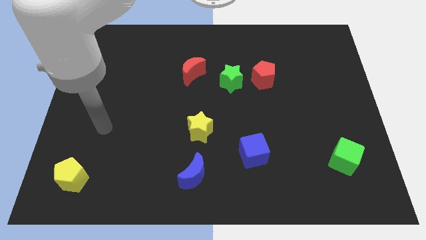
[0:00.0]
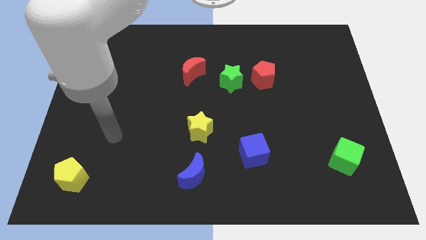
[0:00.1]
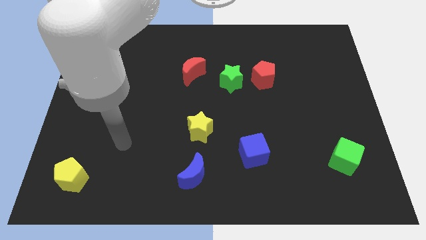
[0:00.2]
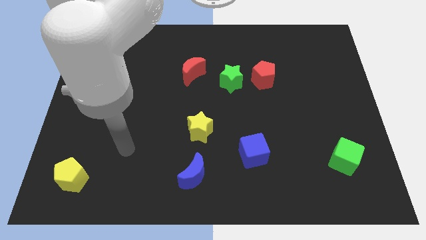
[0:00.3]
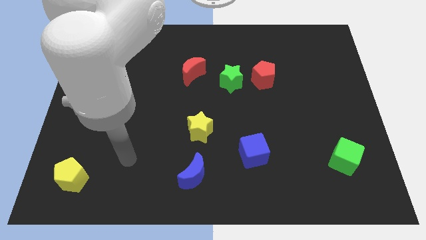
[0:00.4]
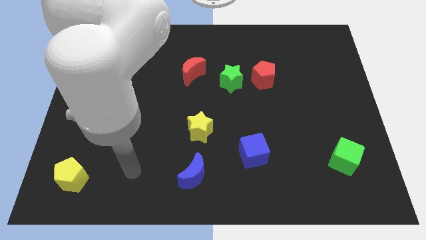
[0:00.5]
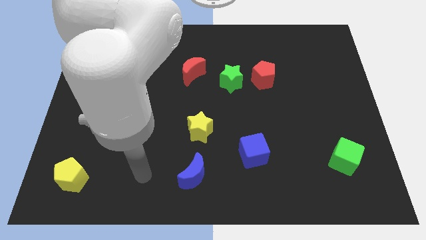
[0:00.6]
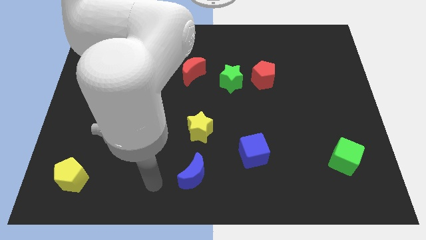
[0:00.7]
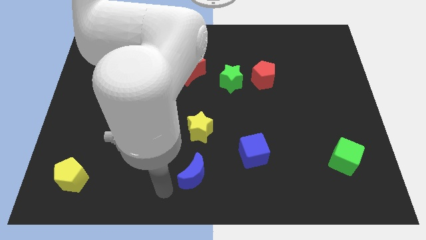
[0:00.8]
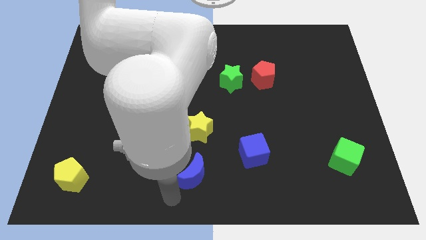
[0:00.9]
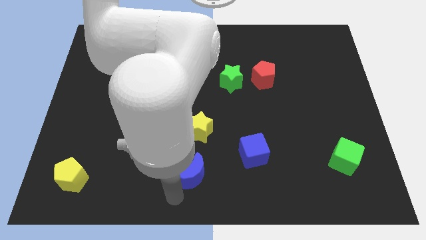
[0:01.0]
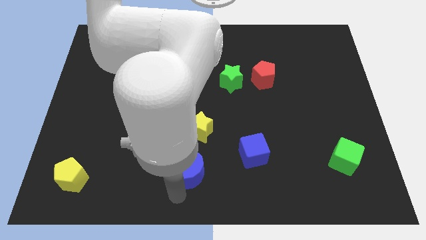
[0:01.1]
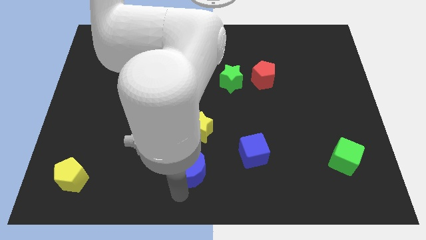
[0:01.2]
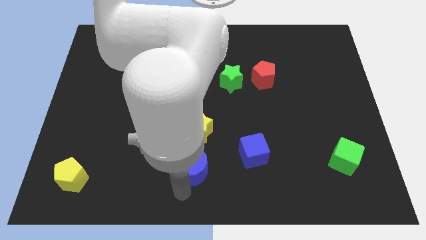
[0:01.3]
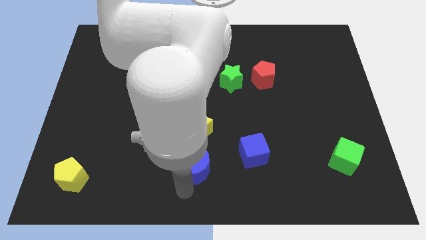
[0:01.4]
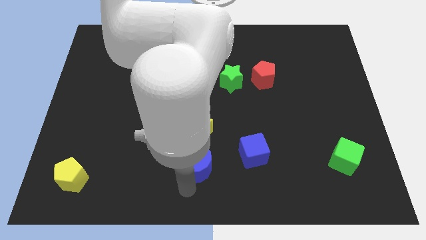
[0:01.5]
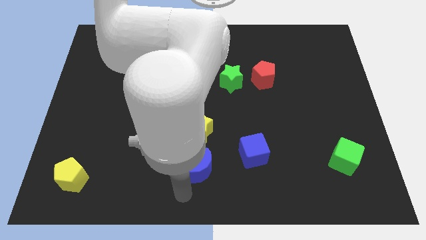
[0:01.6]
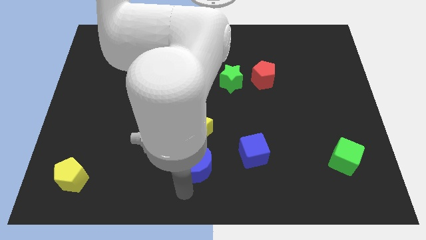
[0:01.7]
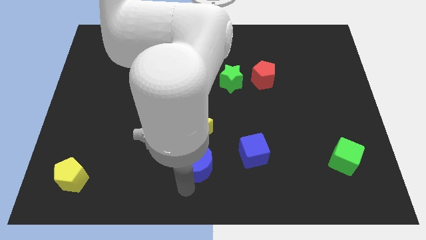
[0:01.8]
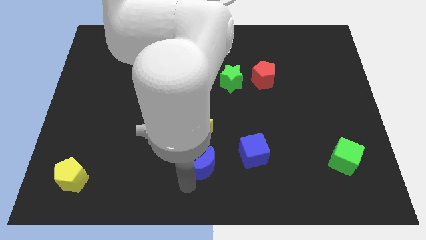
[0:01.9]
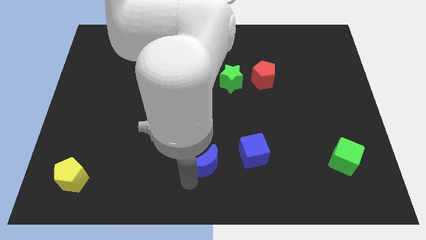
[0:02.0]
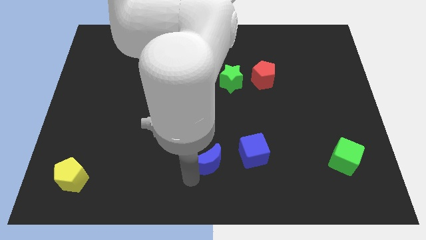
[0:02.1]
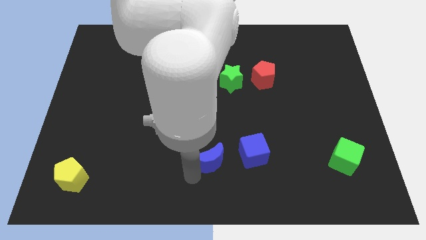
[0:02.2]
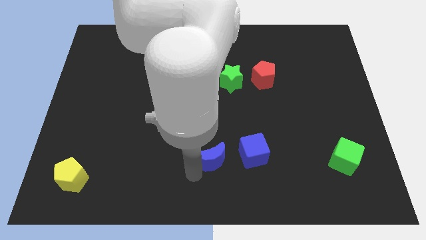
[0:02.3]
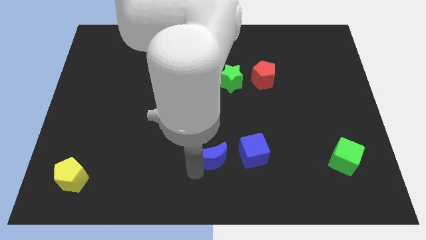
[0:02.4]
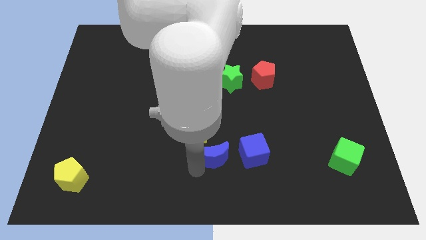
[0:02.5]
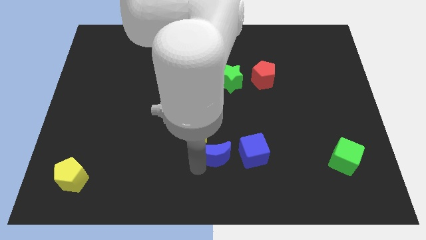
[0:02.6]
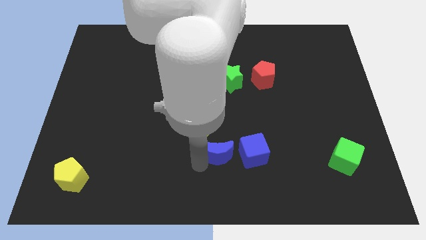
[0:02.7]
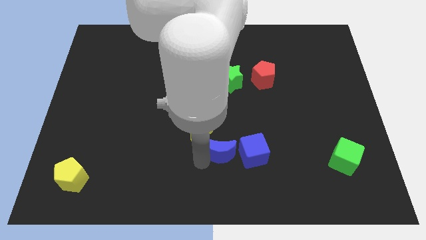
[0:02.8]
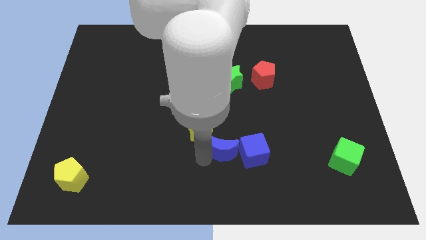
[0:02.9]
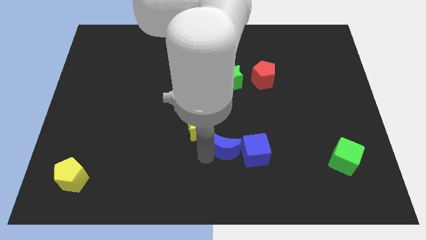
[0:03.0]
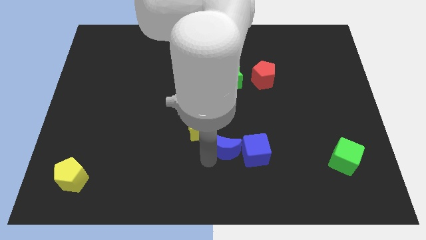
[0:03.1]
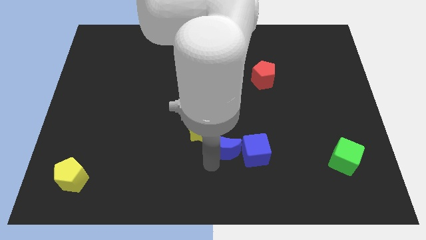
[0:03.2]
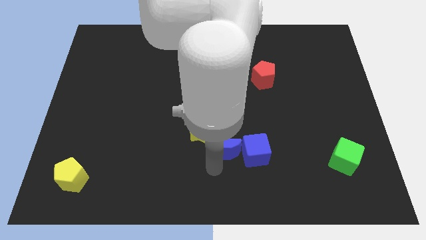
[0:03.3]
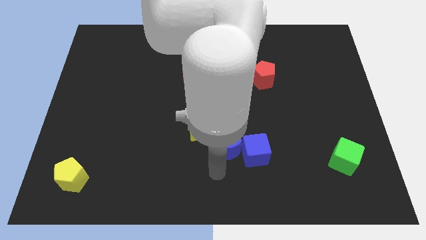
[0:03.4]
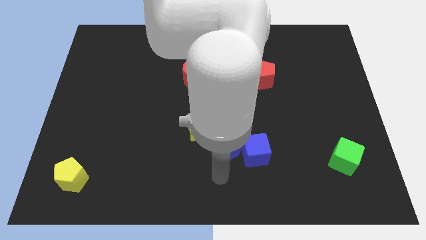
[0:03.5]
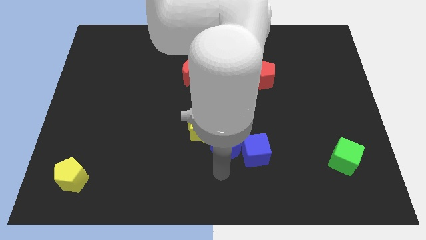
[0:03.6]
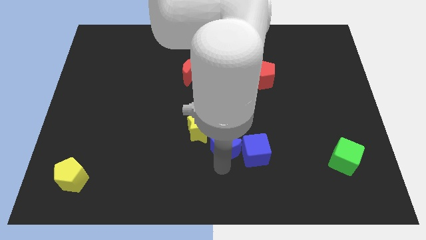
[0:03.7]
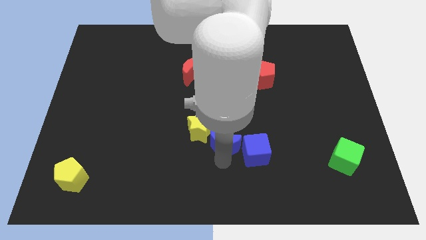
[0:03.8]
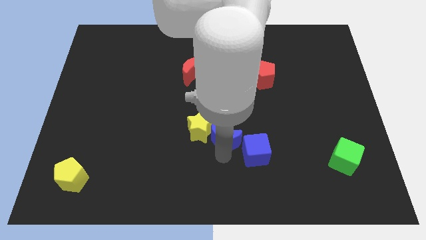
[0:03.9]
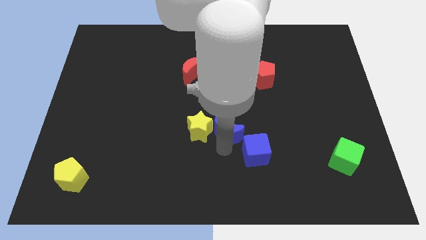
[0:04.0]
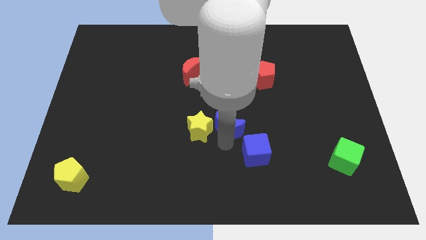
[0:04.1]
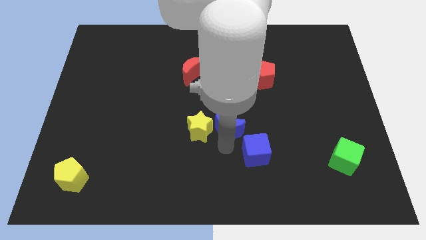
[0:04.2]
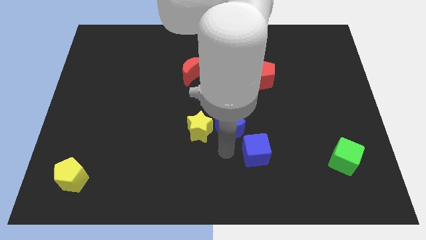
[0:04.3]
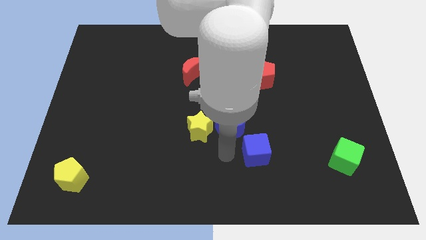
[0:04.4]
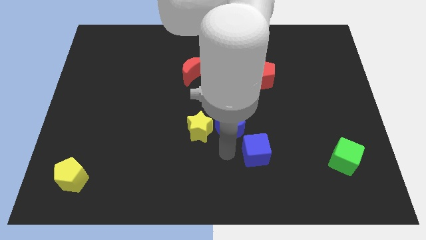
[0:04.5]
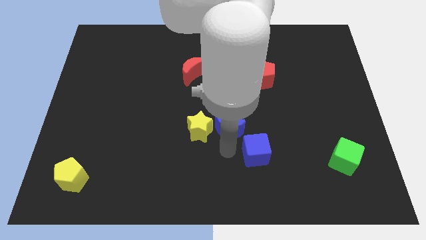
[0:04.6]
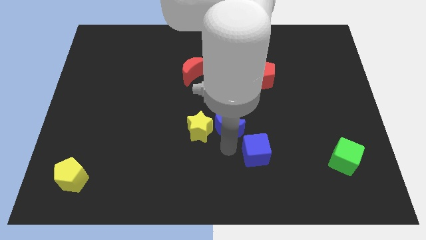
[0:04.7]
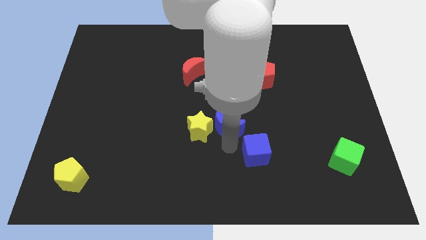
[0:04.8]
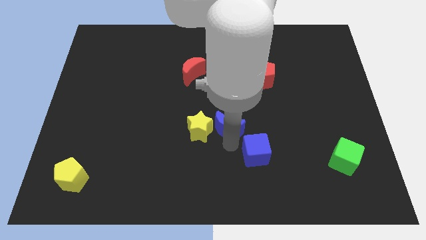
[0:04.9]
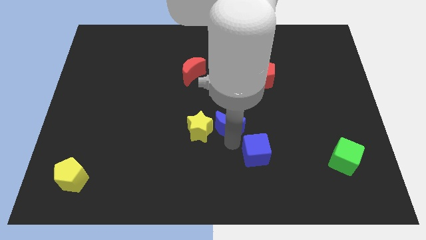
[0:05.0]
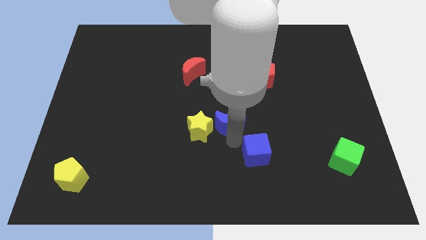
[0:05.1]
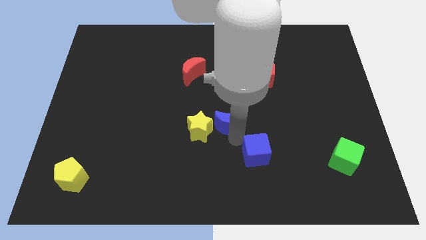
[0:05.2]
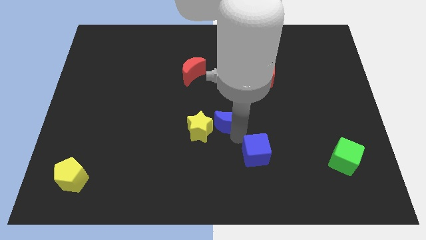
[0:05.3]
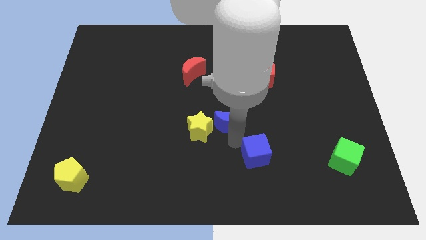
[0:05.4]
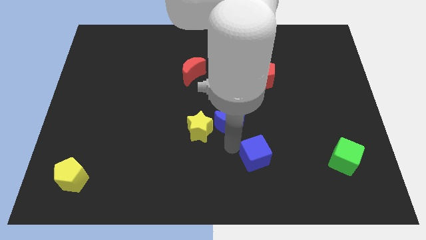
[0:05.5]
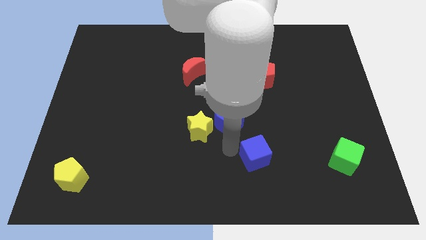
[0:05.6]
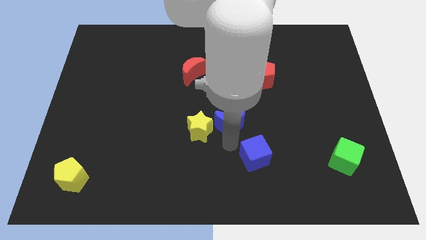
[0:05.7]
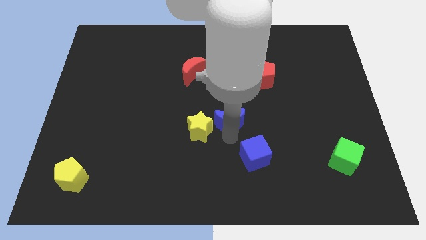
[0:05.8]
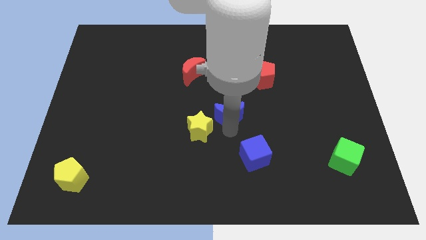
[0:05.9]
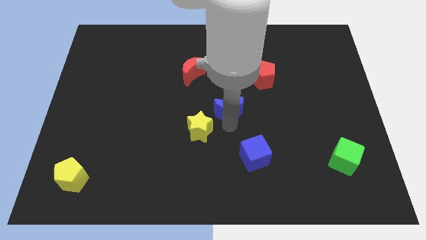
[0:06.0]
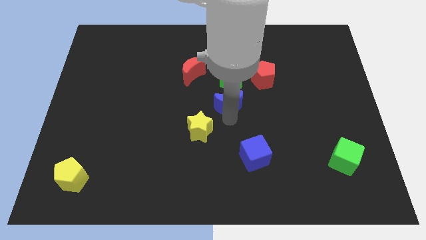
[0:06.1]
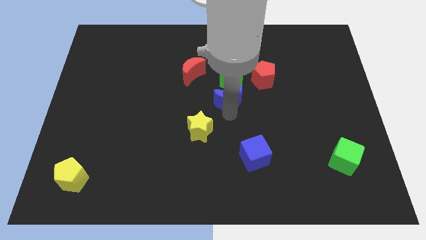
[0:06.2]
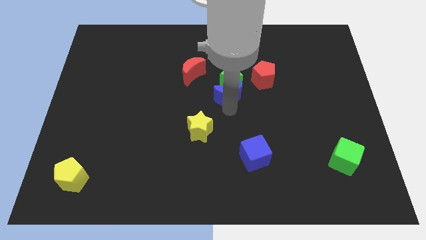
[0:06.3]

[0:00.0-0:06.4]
slide the blue moon towards the green star

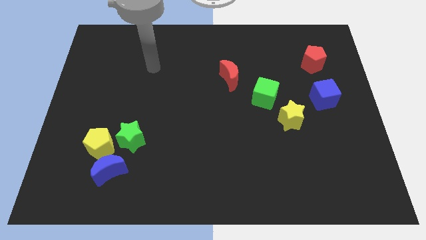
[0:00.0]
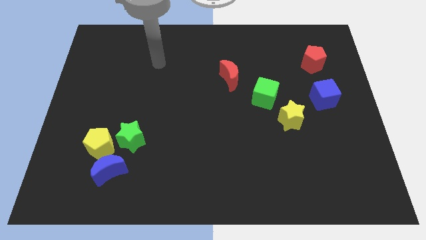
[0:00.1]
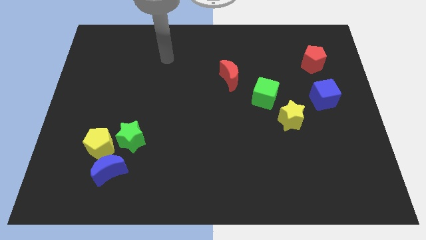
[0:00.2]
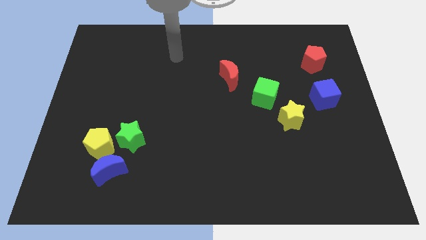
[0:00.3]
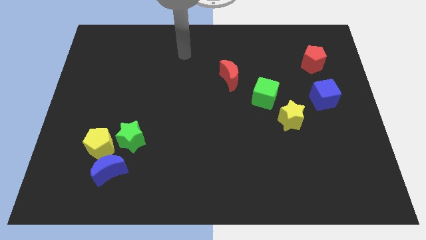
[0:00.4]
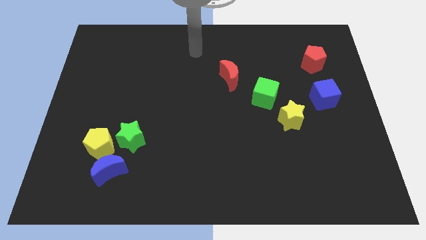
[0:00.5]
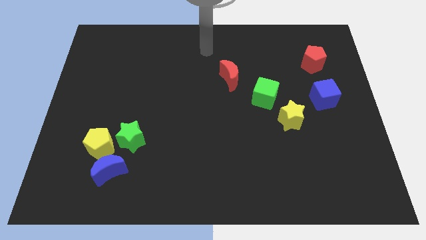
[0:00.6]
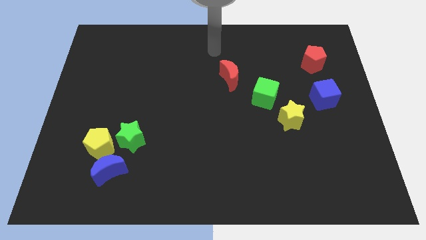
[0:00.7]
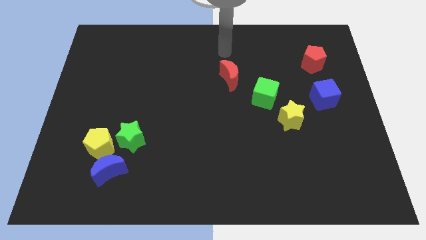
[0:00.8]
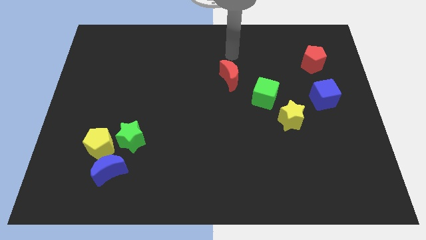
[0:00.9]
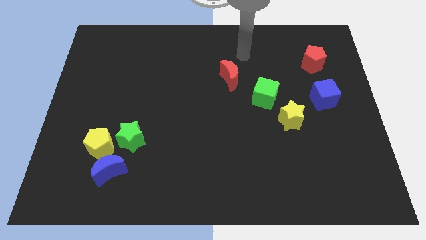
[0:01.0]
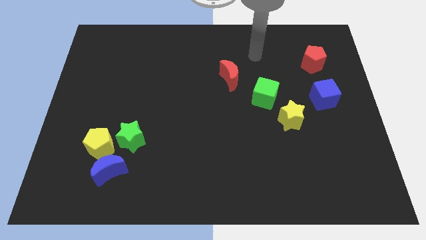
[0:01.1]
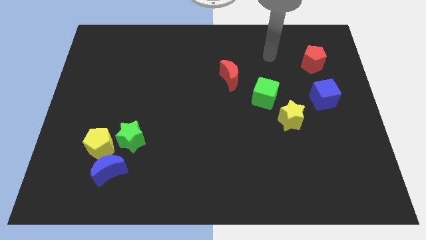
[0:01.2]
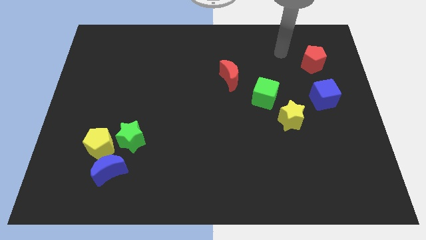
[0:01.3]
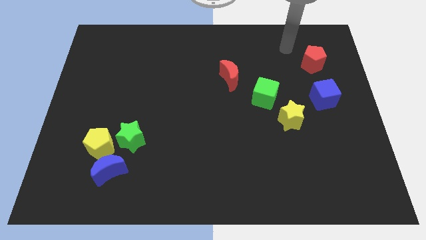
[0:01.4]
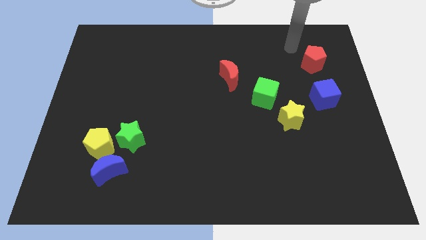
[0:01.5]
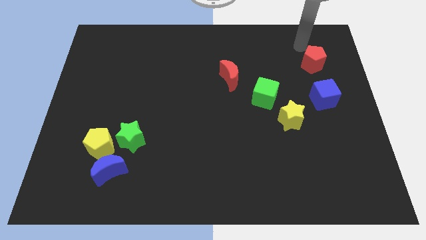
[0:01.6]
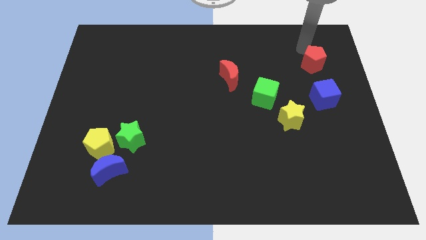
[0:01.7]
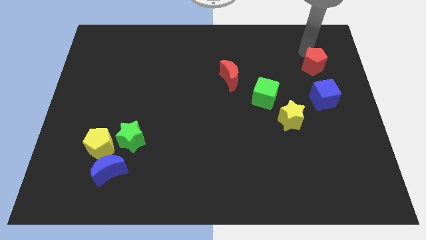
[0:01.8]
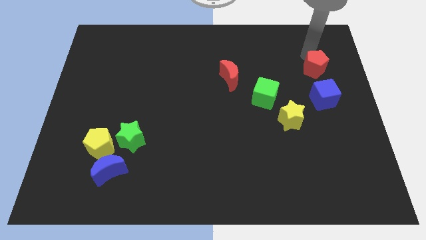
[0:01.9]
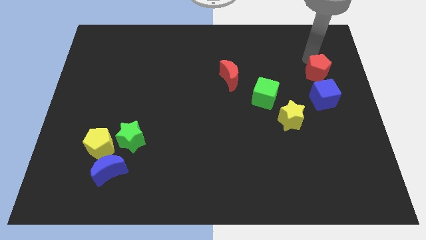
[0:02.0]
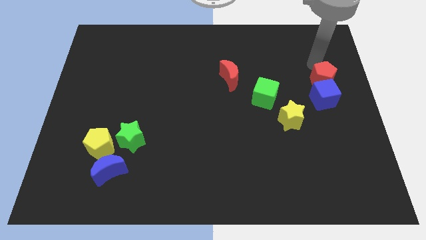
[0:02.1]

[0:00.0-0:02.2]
slide the red pentagon to the blue cube
